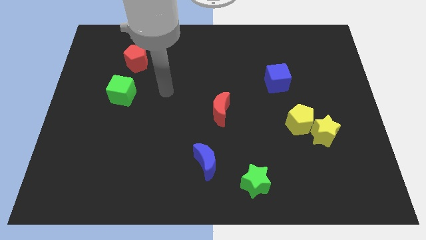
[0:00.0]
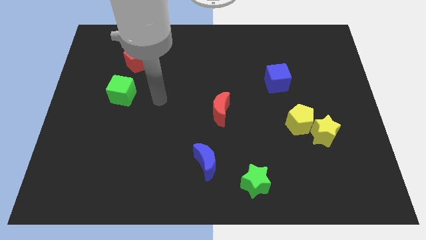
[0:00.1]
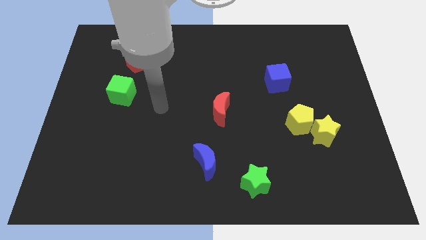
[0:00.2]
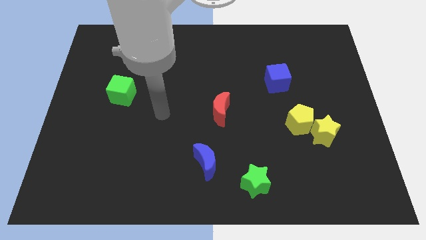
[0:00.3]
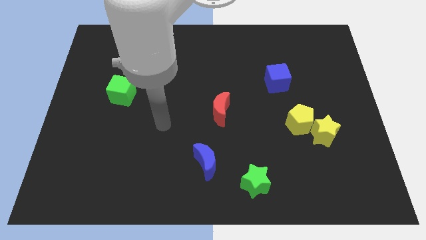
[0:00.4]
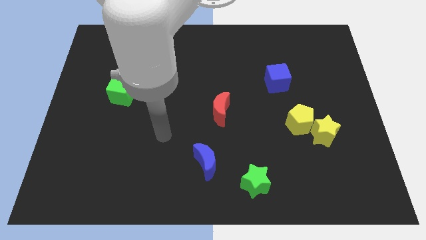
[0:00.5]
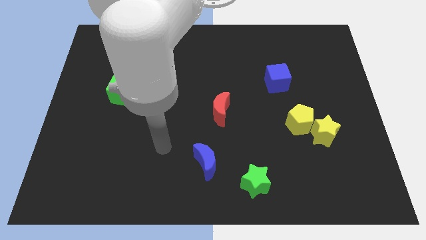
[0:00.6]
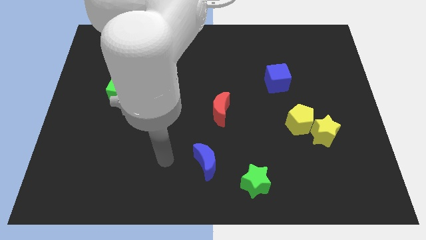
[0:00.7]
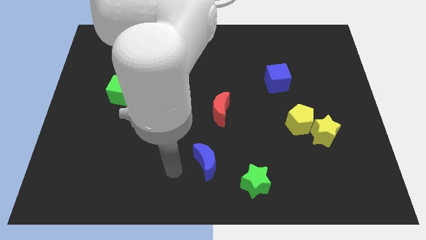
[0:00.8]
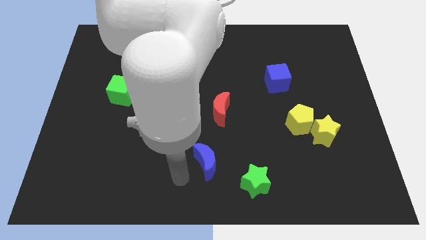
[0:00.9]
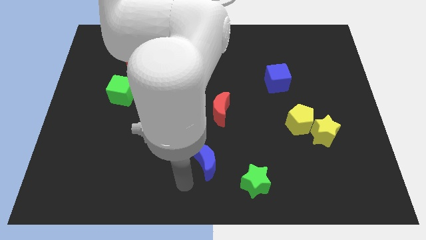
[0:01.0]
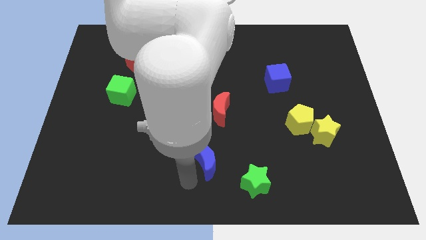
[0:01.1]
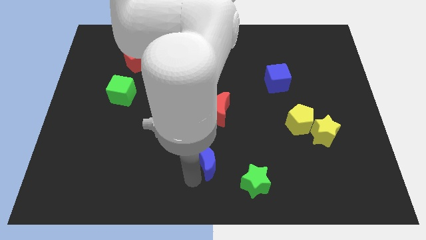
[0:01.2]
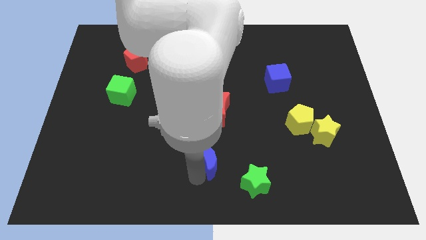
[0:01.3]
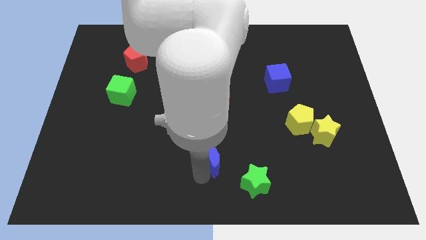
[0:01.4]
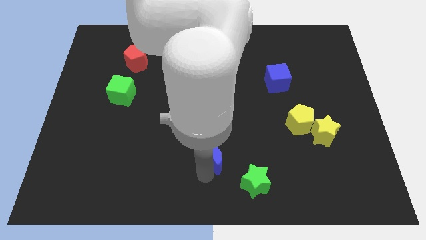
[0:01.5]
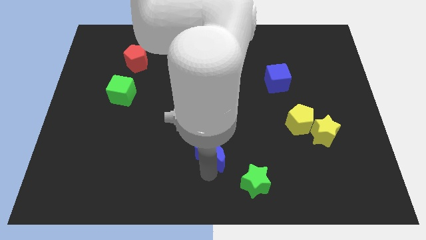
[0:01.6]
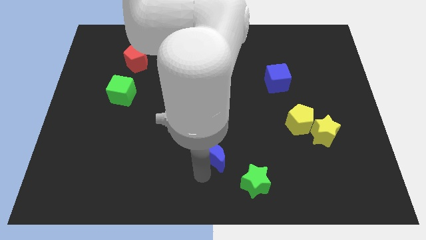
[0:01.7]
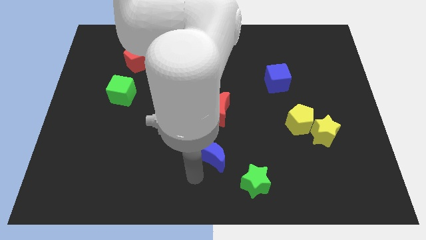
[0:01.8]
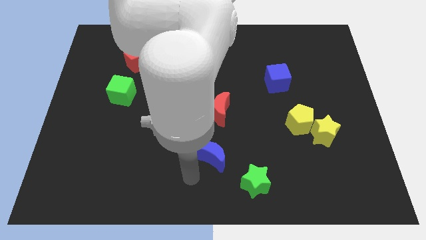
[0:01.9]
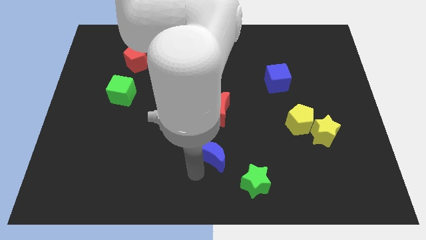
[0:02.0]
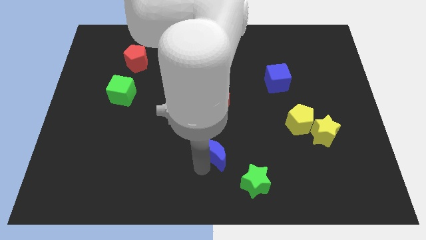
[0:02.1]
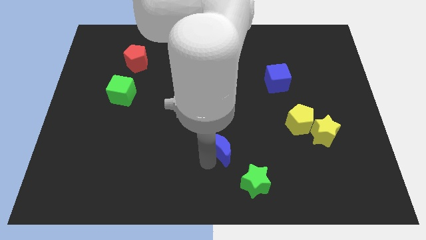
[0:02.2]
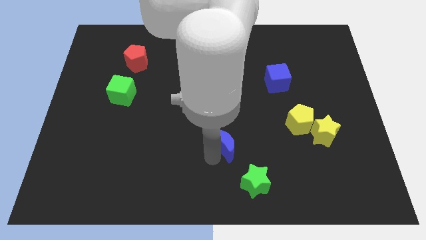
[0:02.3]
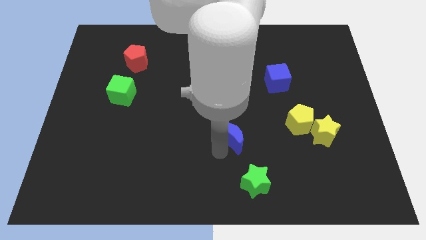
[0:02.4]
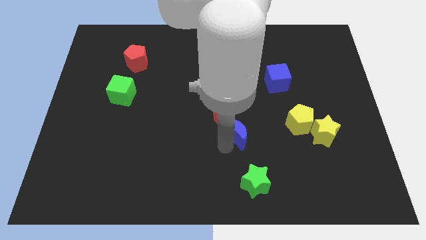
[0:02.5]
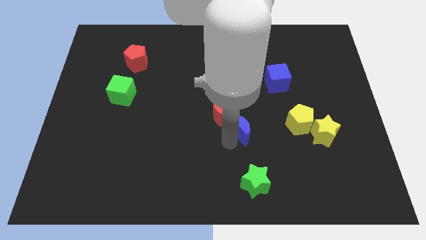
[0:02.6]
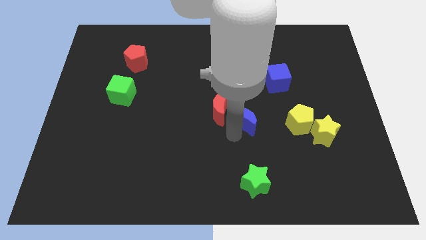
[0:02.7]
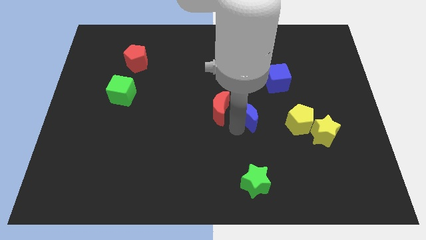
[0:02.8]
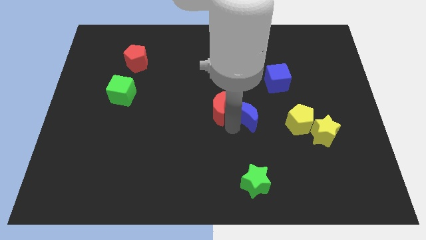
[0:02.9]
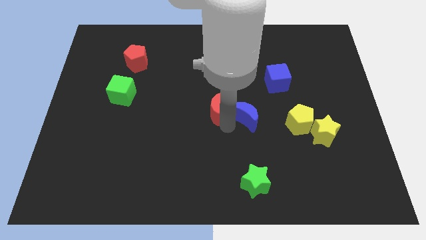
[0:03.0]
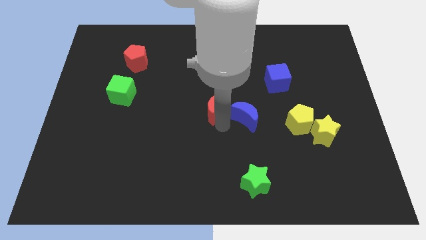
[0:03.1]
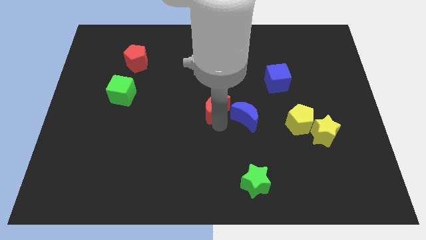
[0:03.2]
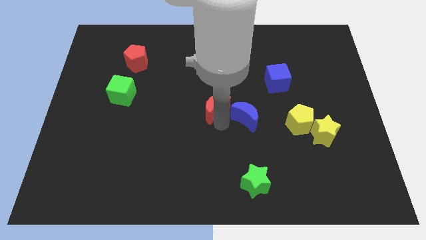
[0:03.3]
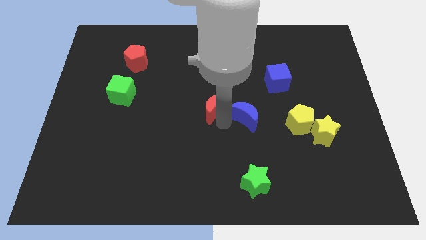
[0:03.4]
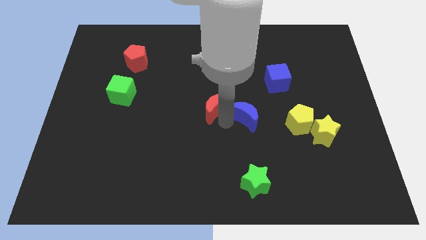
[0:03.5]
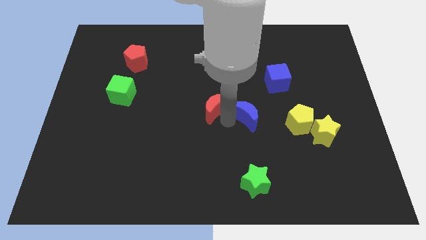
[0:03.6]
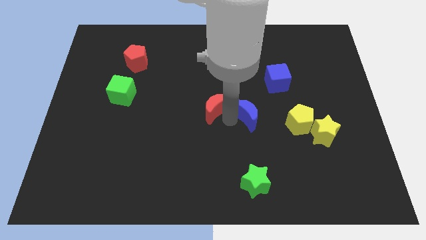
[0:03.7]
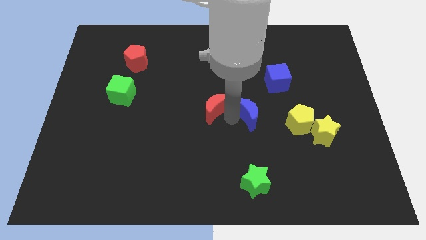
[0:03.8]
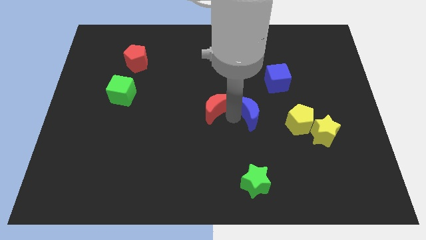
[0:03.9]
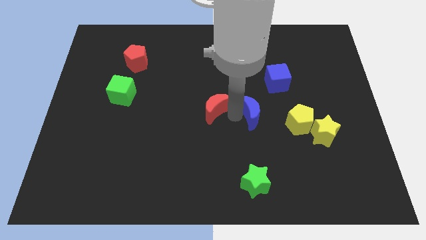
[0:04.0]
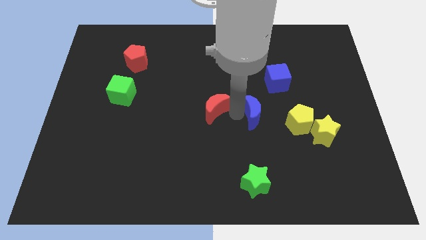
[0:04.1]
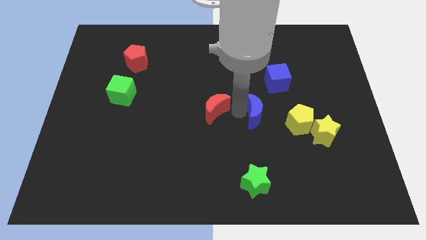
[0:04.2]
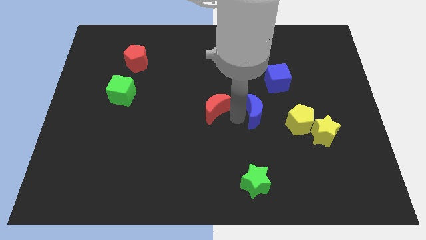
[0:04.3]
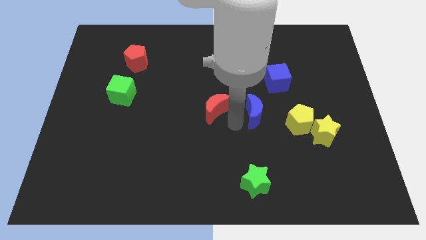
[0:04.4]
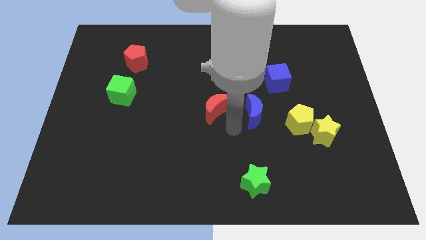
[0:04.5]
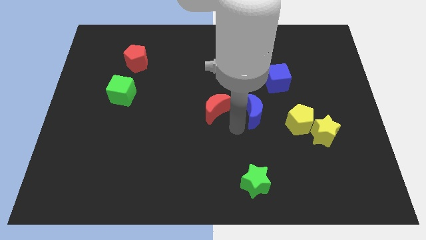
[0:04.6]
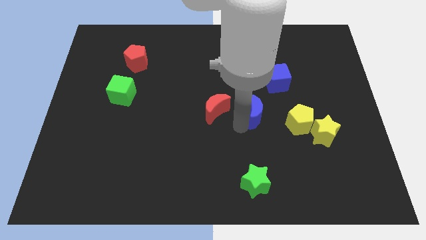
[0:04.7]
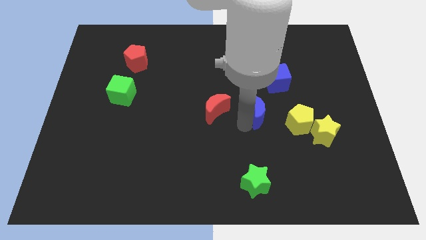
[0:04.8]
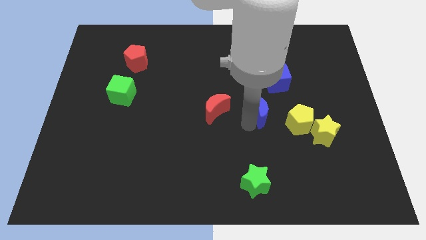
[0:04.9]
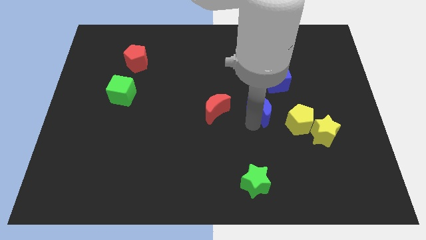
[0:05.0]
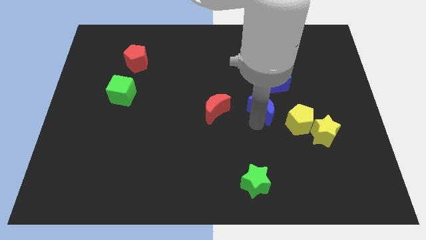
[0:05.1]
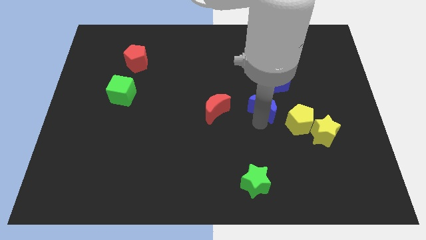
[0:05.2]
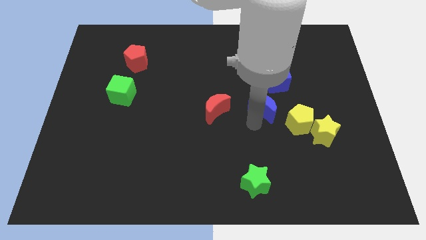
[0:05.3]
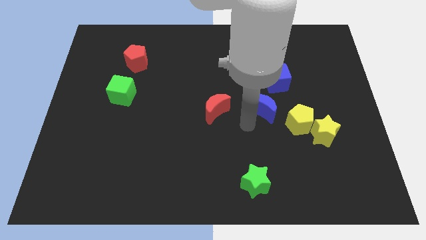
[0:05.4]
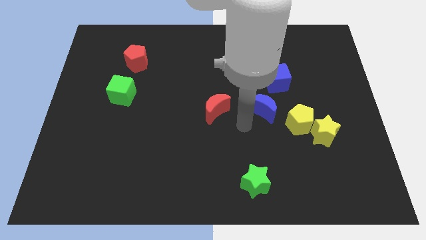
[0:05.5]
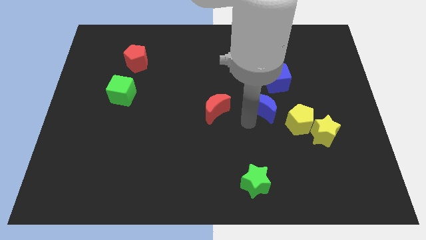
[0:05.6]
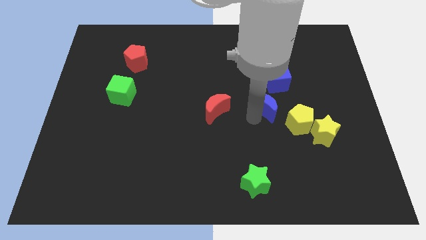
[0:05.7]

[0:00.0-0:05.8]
push the blue moon diagonally up and right

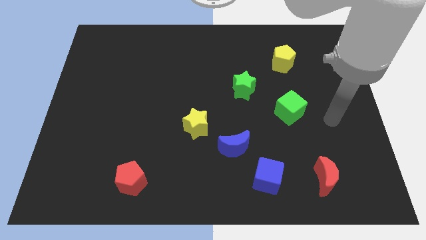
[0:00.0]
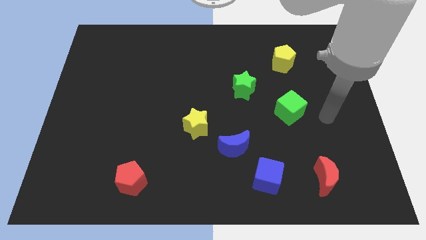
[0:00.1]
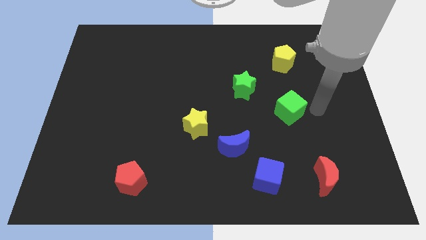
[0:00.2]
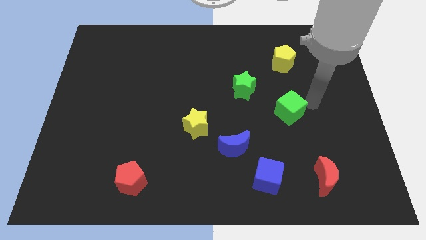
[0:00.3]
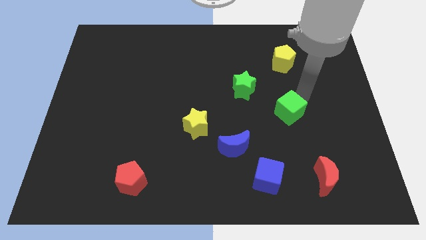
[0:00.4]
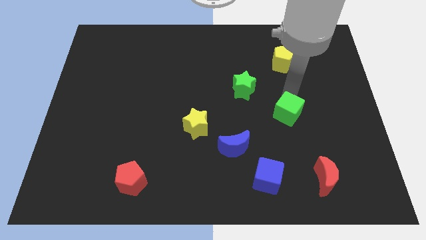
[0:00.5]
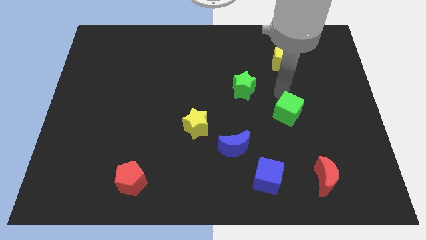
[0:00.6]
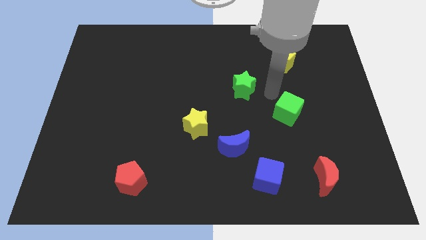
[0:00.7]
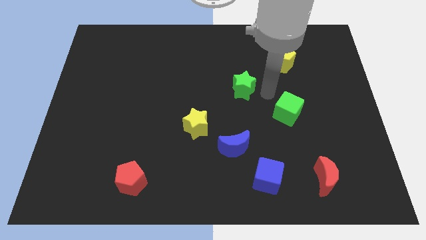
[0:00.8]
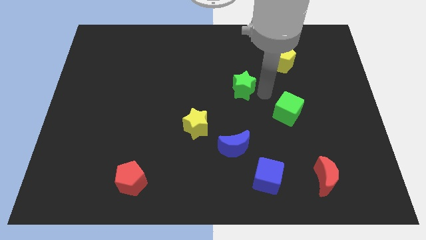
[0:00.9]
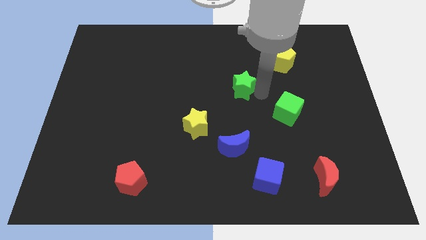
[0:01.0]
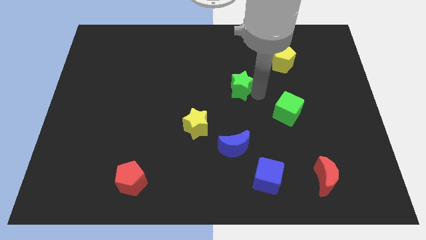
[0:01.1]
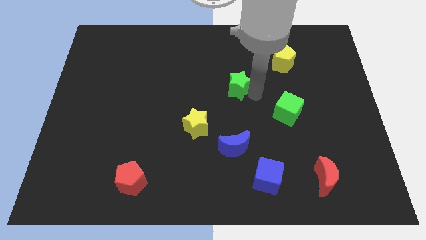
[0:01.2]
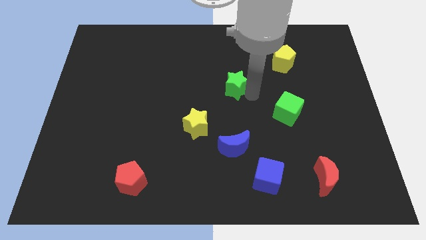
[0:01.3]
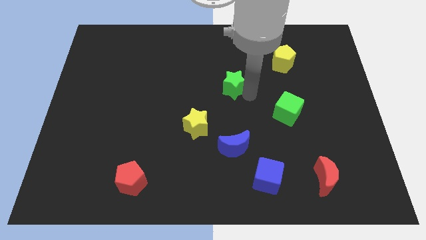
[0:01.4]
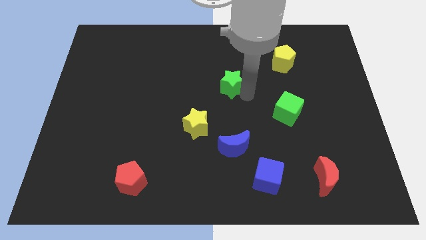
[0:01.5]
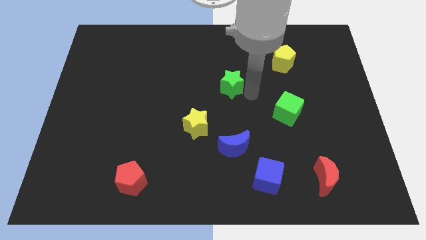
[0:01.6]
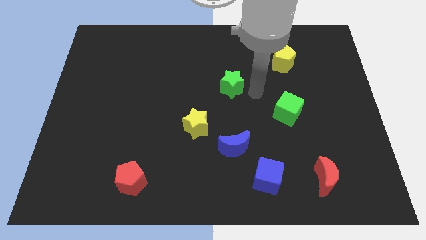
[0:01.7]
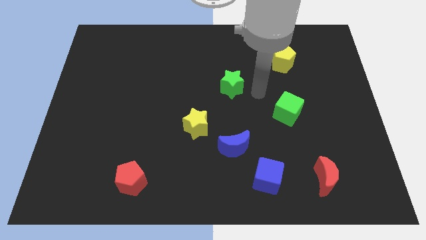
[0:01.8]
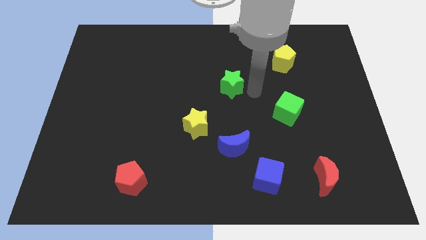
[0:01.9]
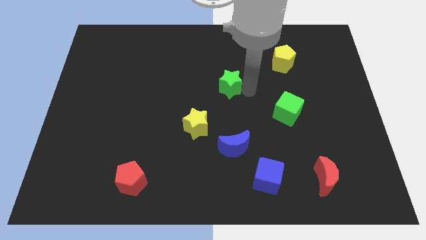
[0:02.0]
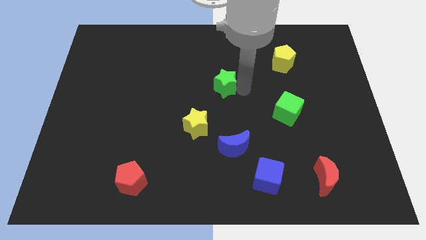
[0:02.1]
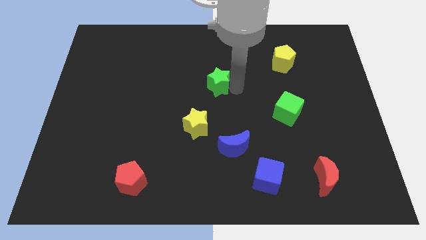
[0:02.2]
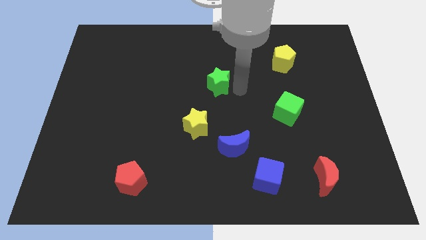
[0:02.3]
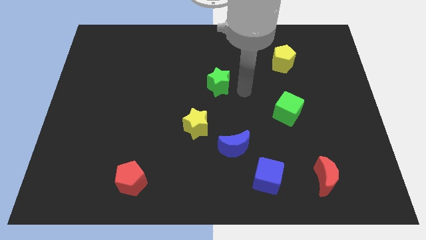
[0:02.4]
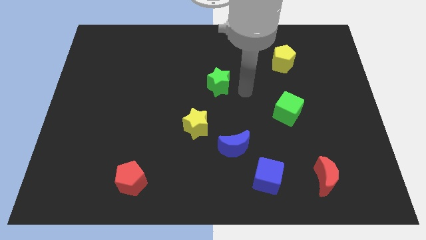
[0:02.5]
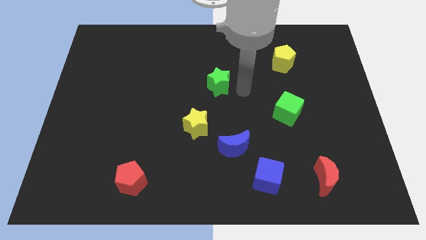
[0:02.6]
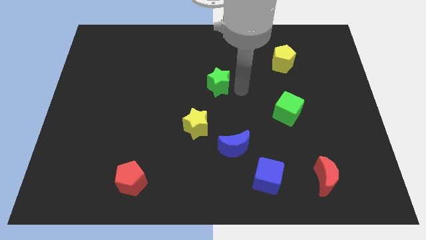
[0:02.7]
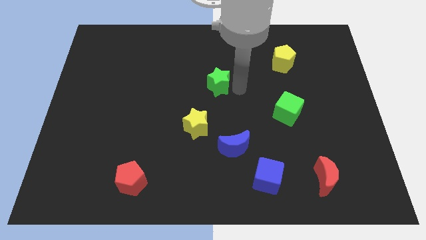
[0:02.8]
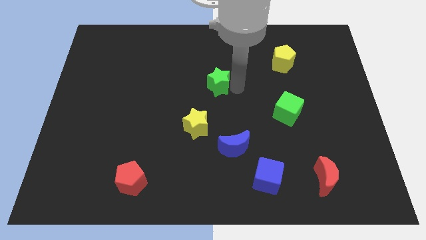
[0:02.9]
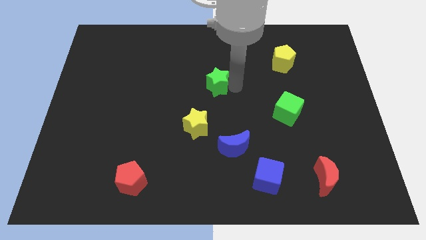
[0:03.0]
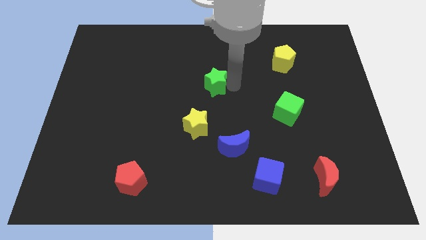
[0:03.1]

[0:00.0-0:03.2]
slightly slide the green star left
